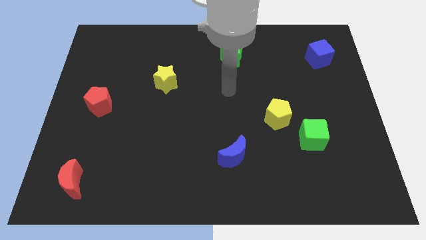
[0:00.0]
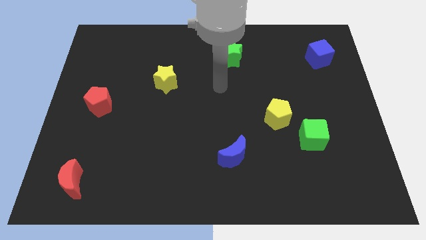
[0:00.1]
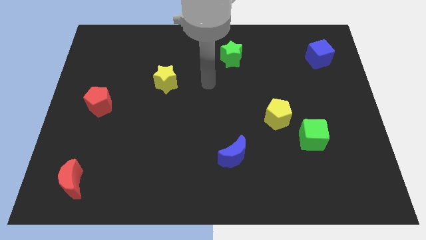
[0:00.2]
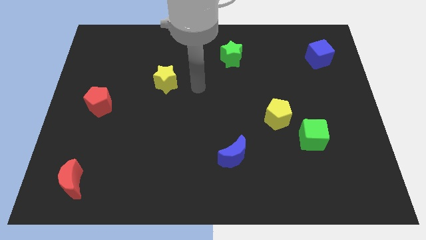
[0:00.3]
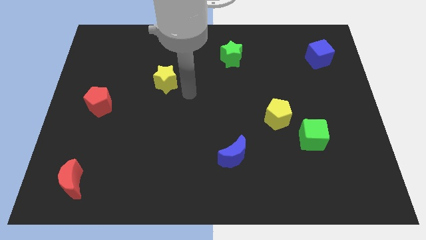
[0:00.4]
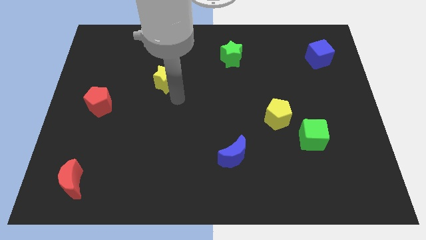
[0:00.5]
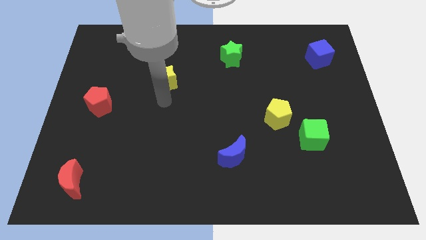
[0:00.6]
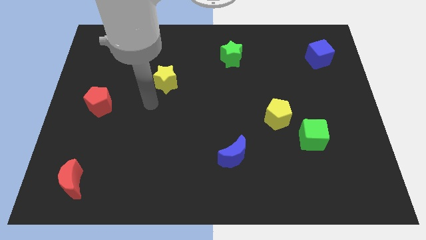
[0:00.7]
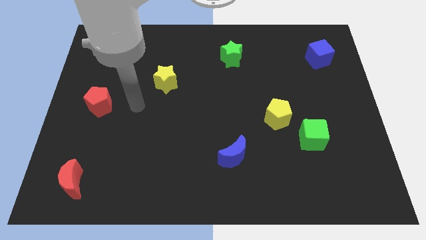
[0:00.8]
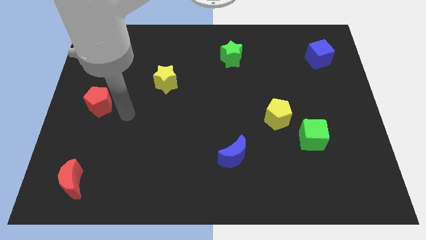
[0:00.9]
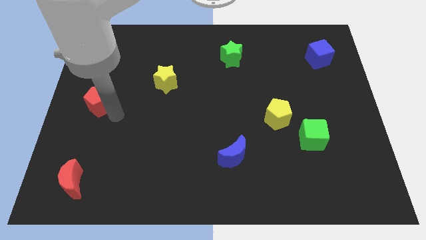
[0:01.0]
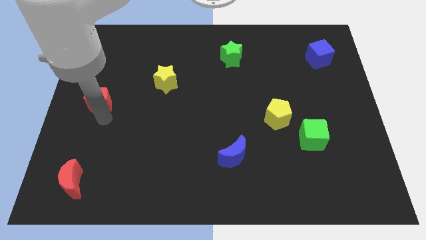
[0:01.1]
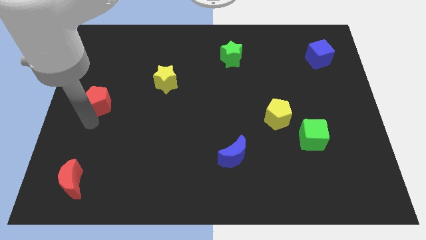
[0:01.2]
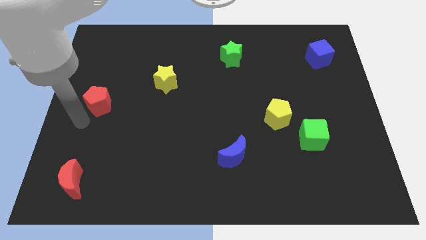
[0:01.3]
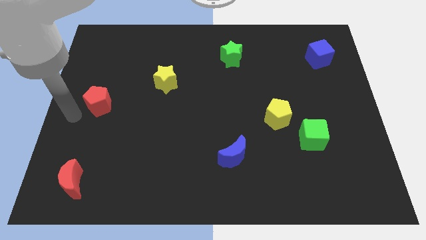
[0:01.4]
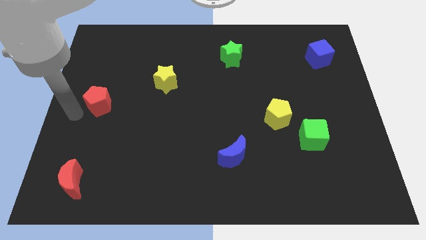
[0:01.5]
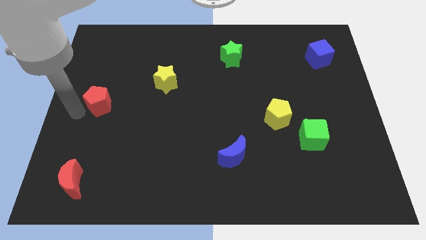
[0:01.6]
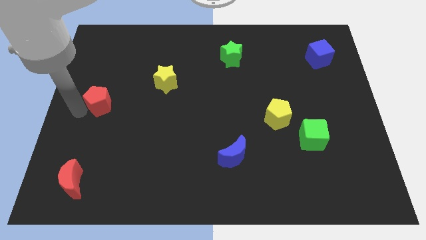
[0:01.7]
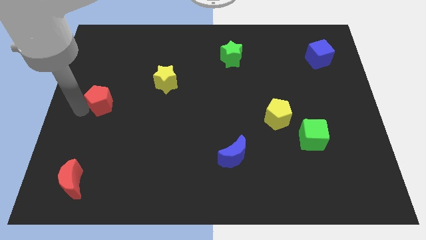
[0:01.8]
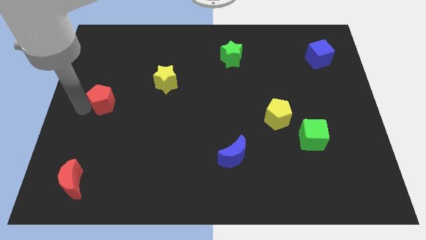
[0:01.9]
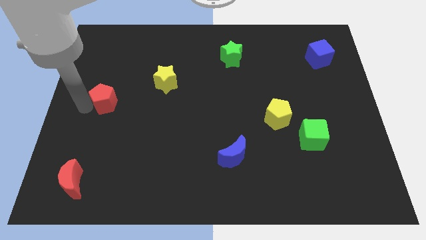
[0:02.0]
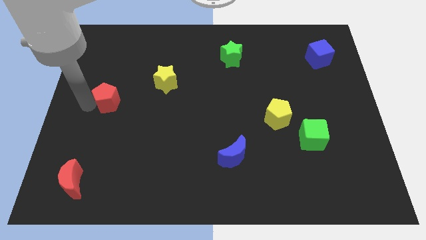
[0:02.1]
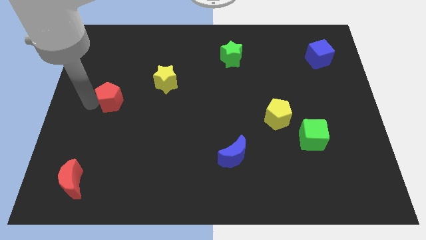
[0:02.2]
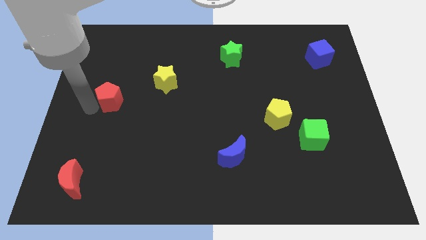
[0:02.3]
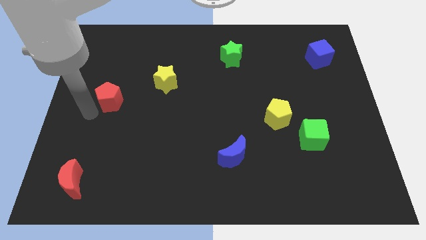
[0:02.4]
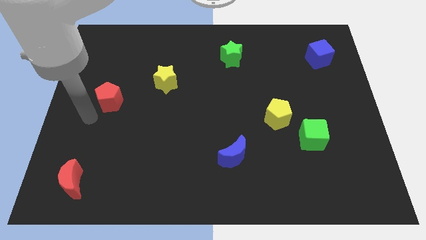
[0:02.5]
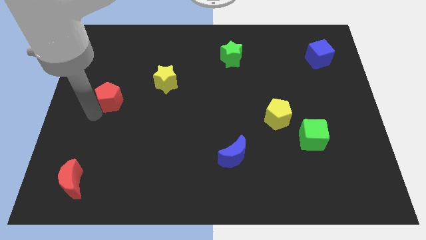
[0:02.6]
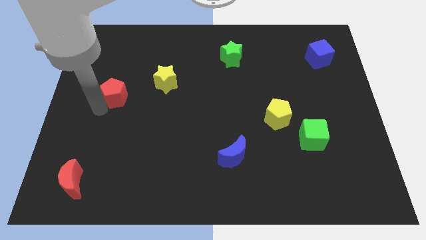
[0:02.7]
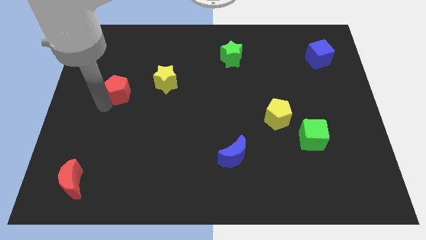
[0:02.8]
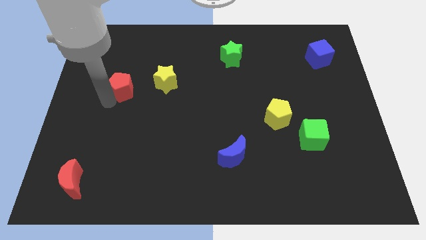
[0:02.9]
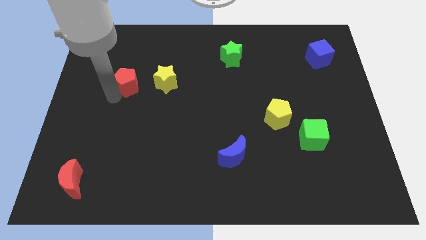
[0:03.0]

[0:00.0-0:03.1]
slide the red pentagon a little bit up and to the right

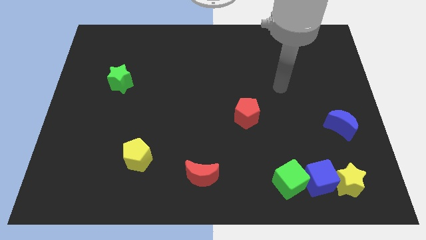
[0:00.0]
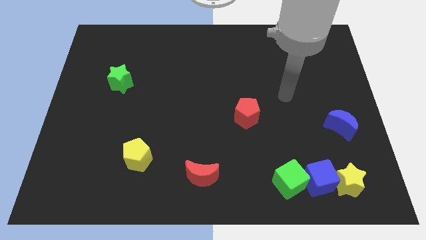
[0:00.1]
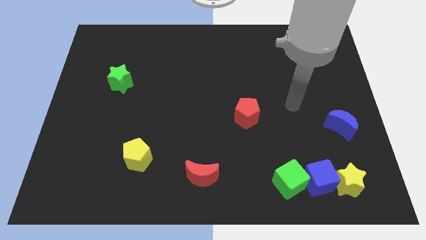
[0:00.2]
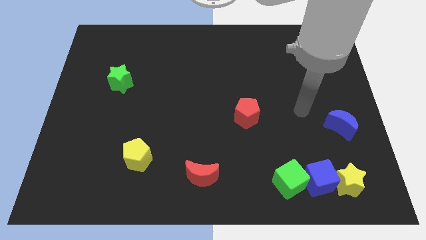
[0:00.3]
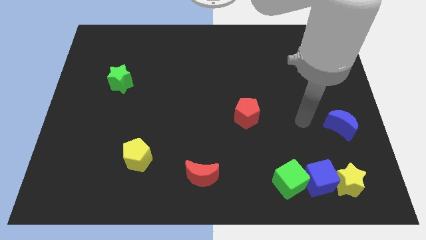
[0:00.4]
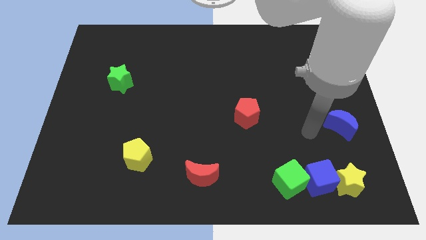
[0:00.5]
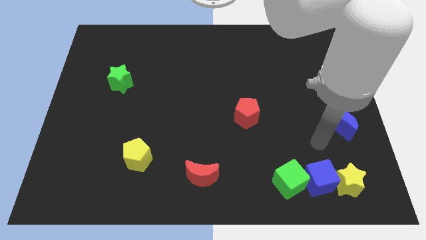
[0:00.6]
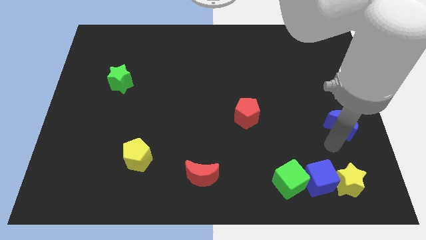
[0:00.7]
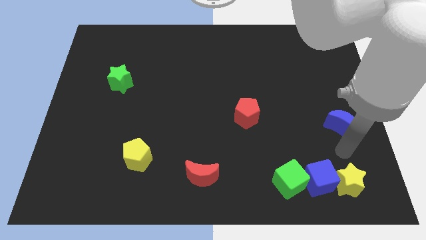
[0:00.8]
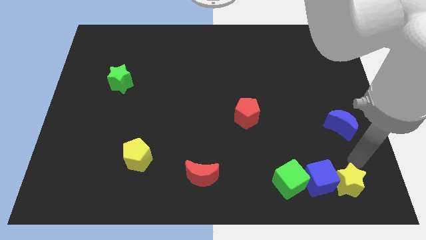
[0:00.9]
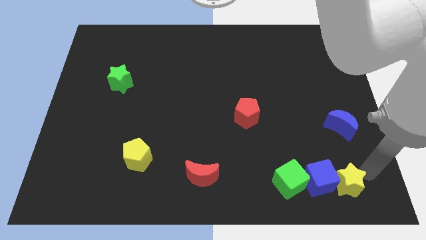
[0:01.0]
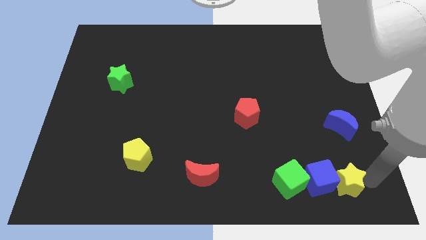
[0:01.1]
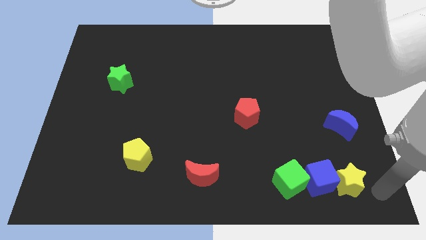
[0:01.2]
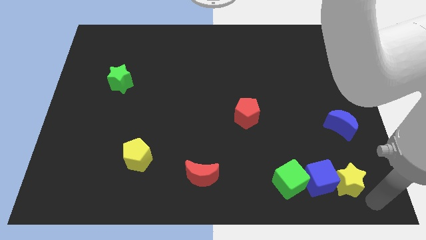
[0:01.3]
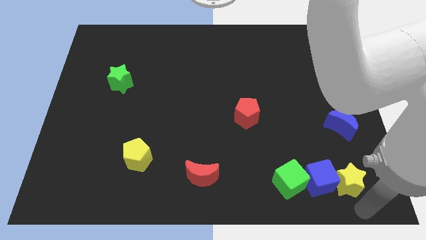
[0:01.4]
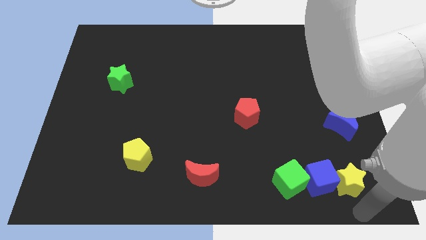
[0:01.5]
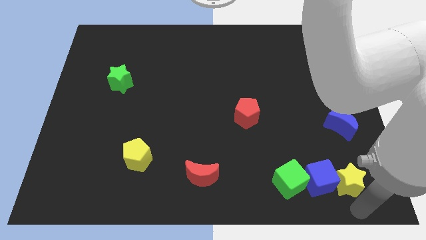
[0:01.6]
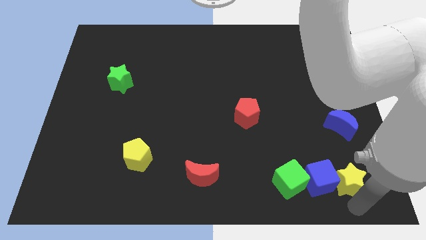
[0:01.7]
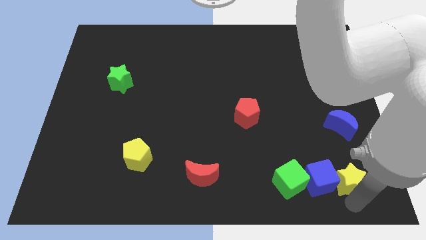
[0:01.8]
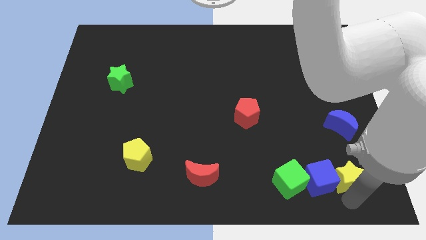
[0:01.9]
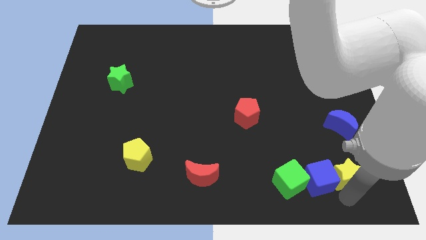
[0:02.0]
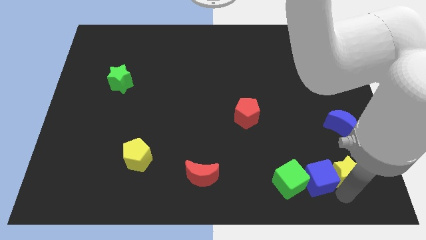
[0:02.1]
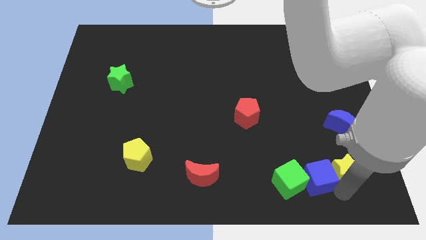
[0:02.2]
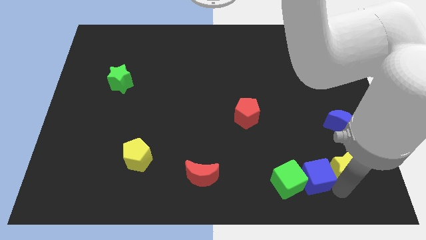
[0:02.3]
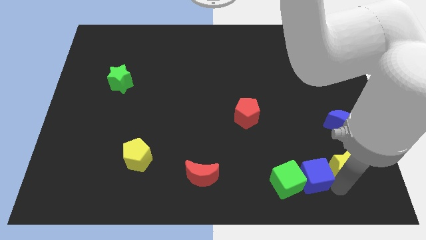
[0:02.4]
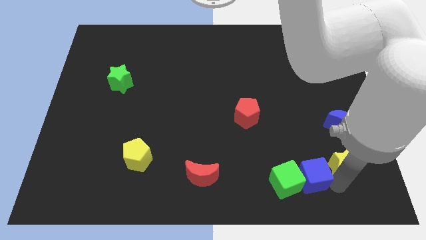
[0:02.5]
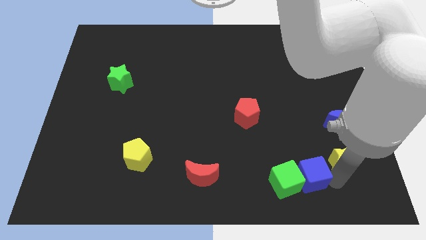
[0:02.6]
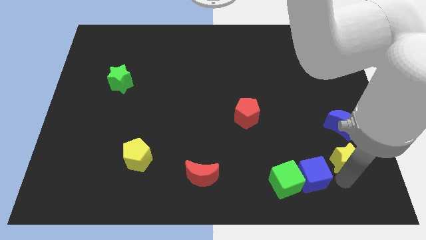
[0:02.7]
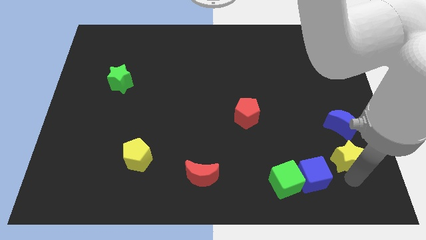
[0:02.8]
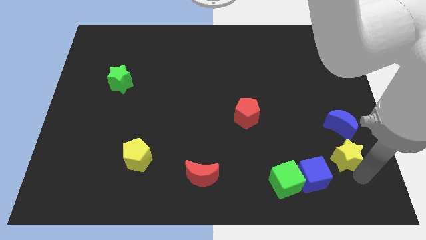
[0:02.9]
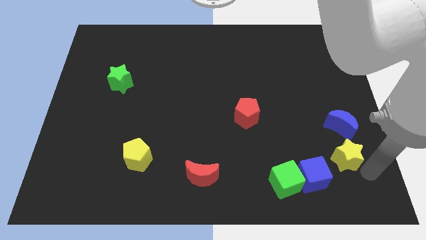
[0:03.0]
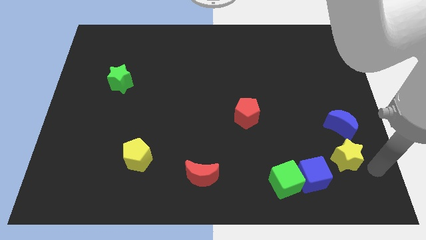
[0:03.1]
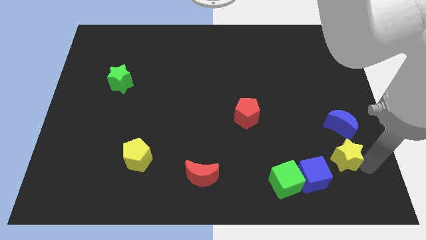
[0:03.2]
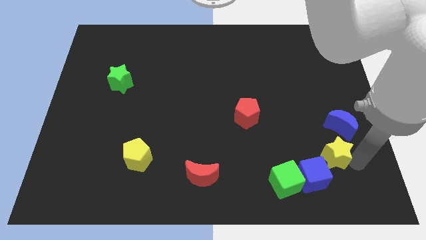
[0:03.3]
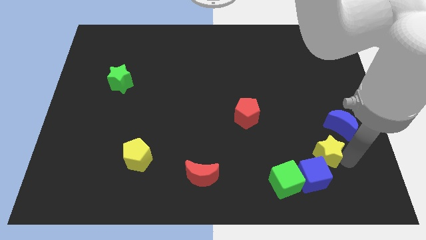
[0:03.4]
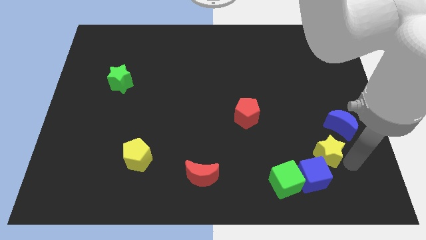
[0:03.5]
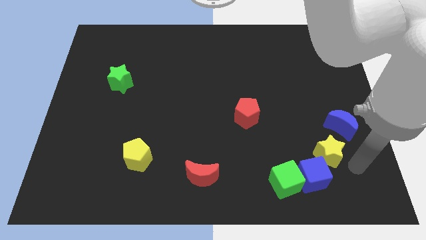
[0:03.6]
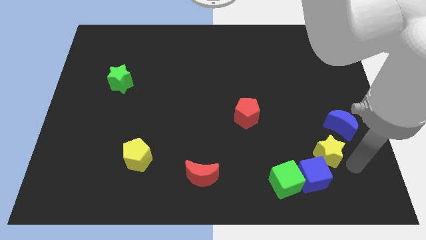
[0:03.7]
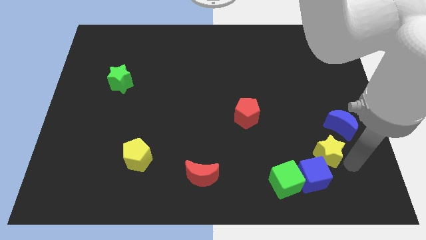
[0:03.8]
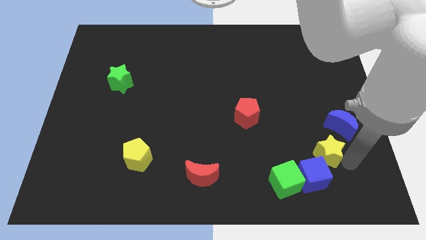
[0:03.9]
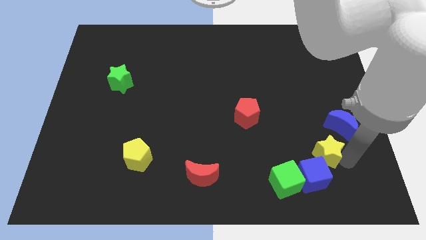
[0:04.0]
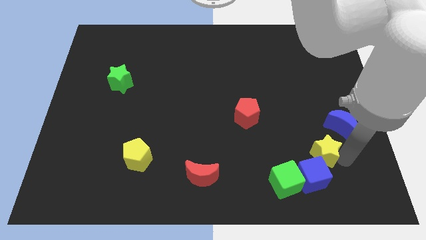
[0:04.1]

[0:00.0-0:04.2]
push the yellow star a little bit diagonally up and to the left

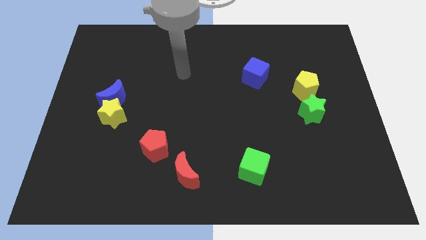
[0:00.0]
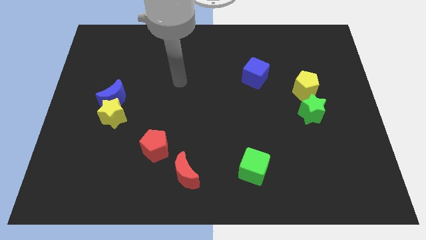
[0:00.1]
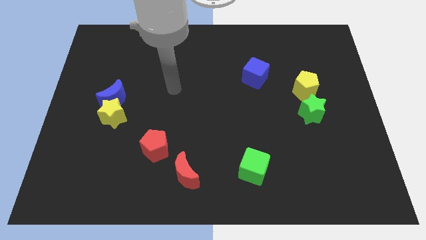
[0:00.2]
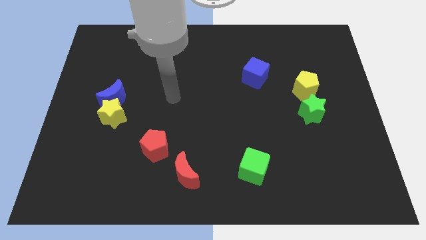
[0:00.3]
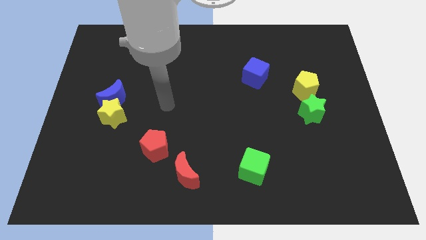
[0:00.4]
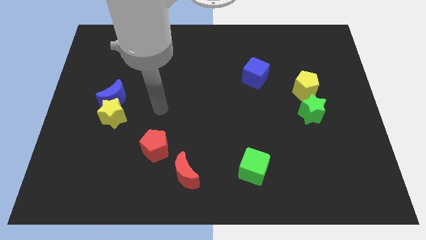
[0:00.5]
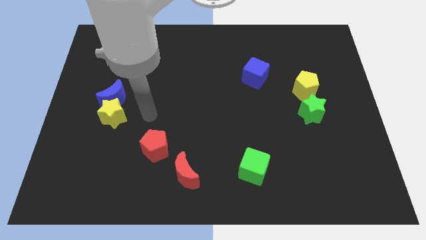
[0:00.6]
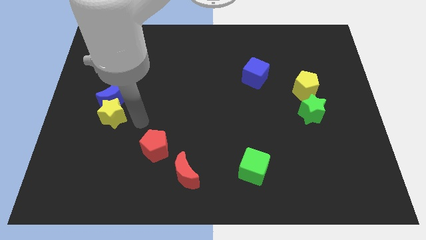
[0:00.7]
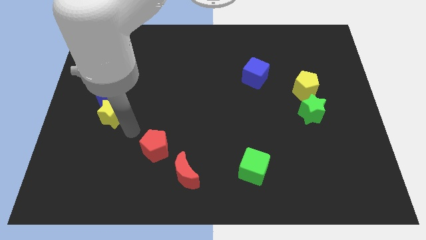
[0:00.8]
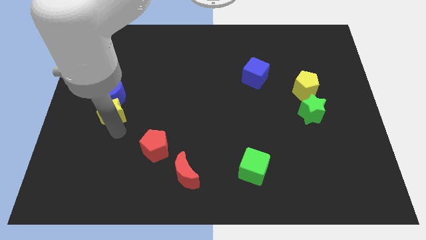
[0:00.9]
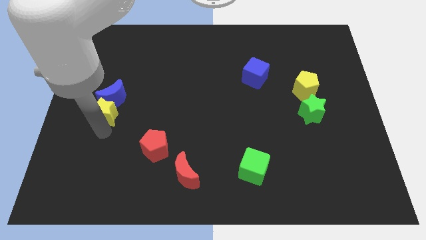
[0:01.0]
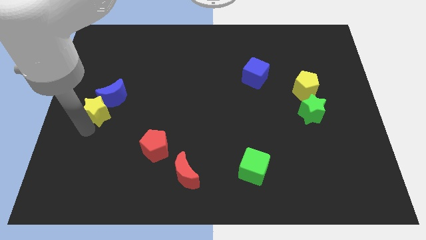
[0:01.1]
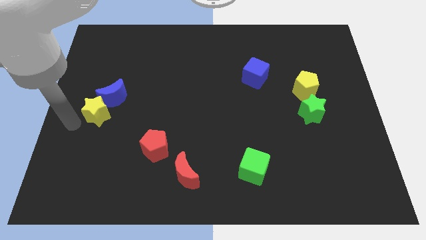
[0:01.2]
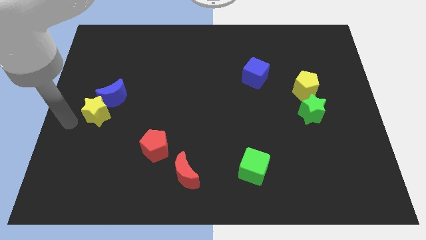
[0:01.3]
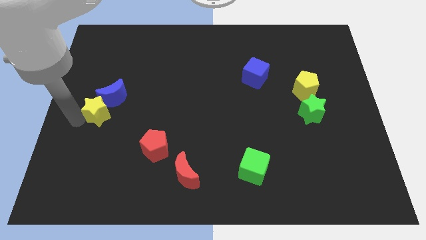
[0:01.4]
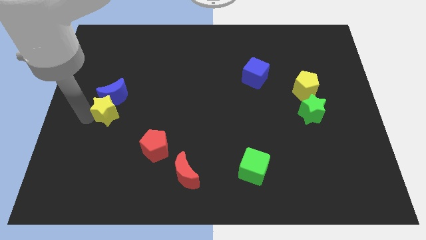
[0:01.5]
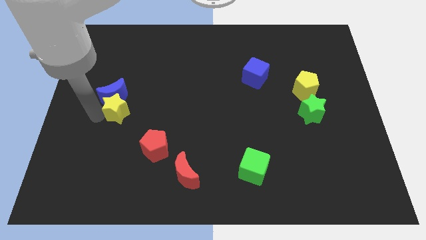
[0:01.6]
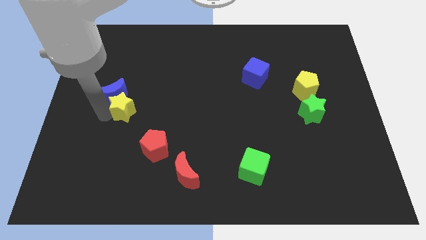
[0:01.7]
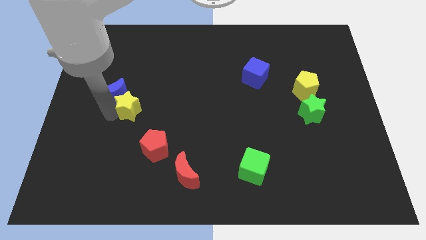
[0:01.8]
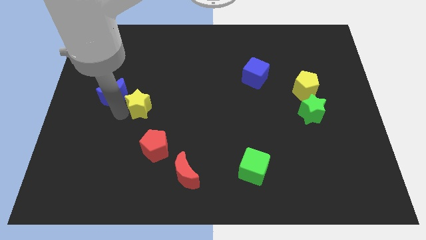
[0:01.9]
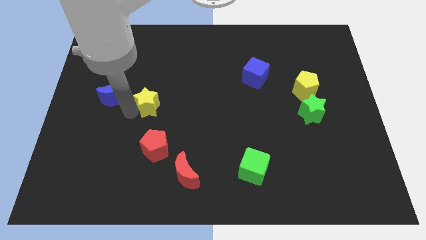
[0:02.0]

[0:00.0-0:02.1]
push the yellow star a little up and right
